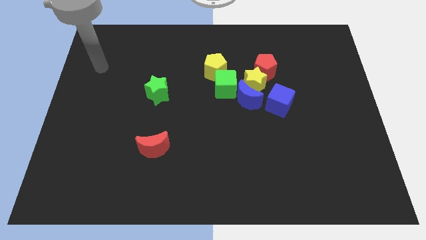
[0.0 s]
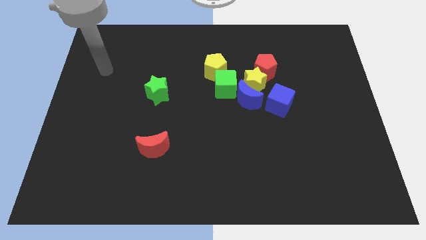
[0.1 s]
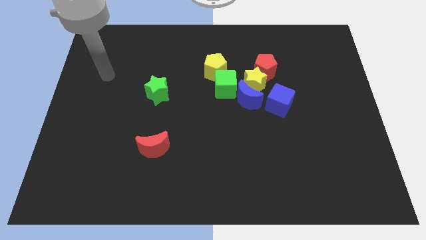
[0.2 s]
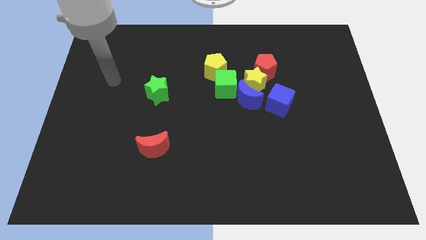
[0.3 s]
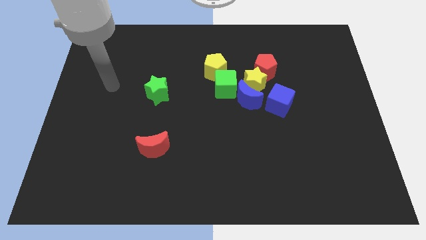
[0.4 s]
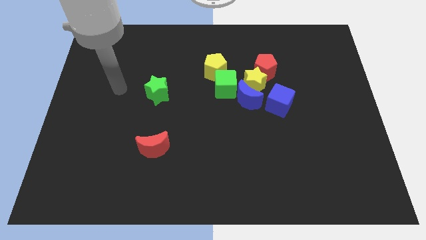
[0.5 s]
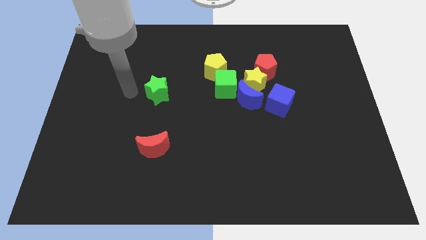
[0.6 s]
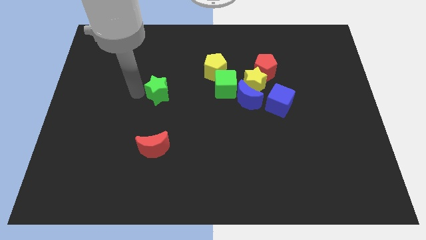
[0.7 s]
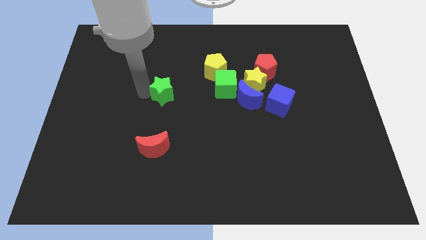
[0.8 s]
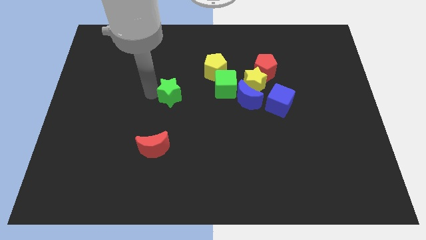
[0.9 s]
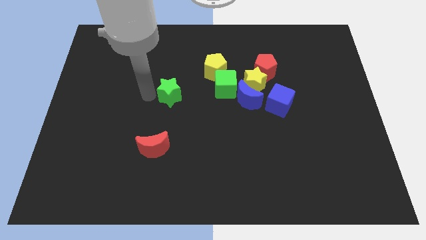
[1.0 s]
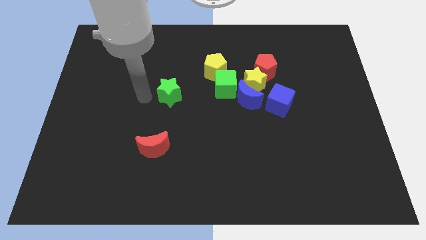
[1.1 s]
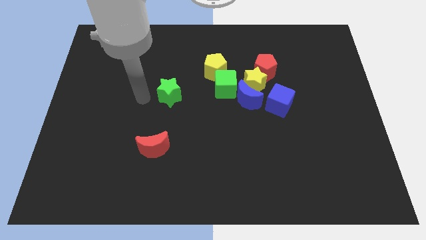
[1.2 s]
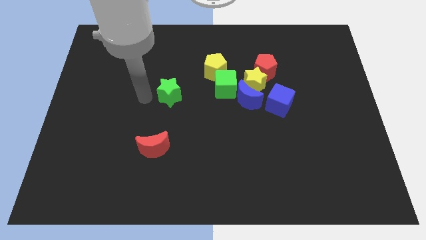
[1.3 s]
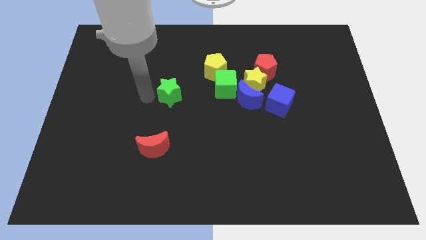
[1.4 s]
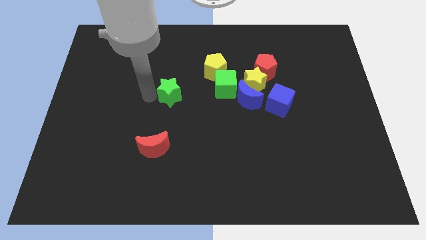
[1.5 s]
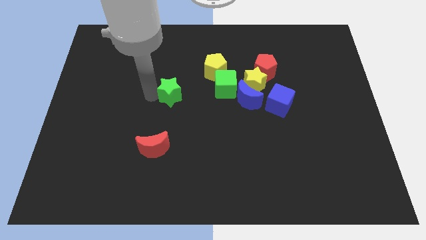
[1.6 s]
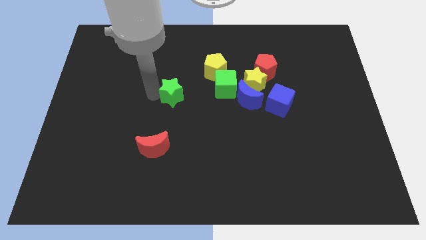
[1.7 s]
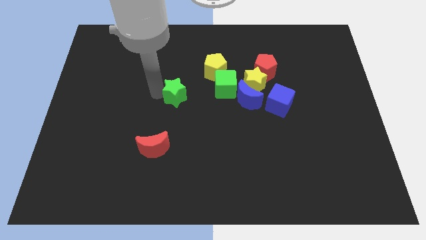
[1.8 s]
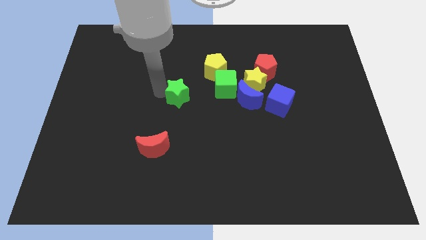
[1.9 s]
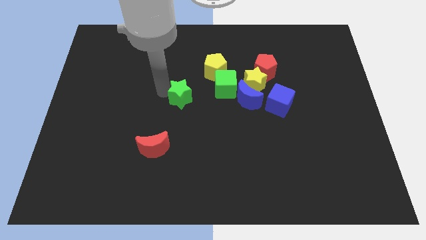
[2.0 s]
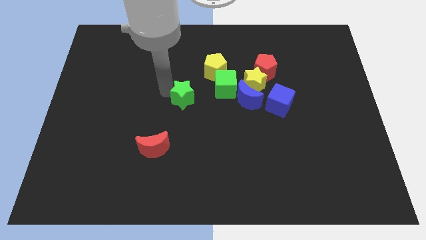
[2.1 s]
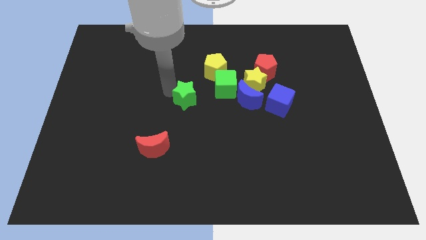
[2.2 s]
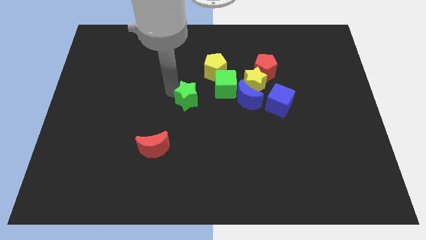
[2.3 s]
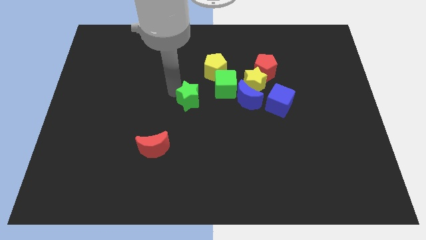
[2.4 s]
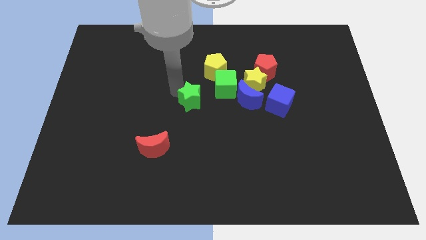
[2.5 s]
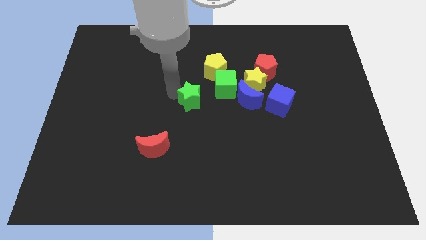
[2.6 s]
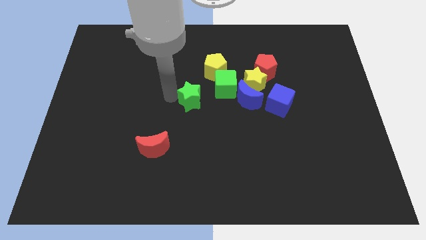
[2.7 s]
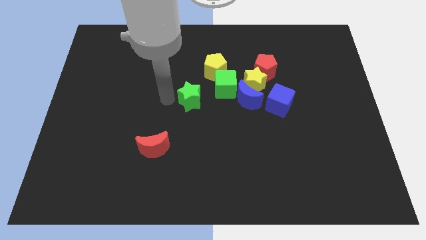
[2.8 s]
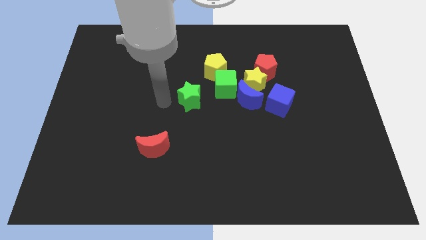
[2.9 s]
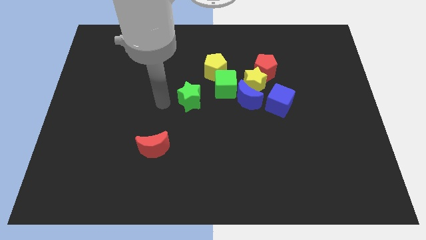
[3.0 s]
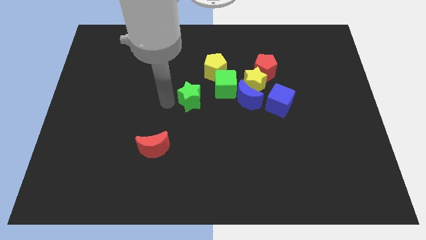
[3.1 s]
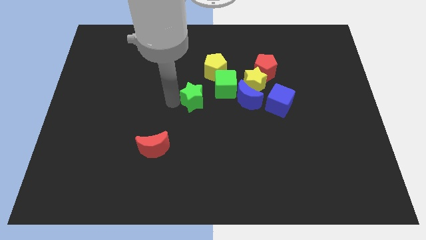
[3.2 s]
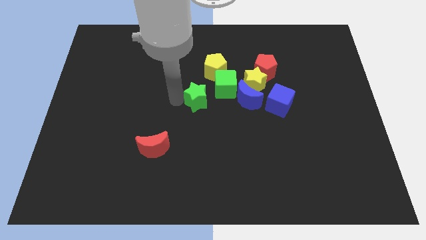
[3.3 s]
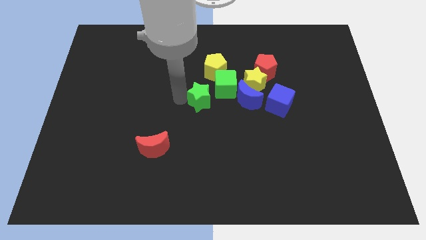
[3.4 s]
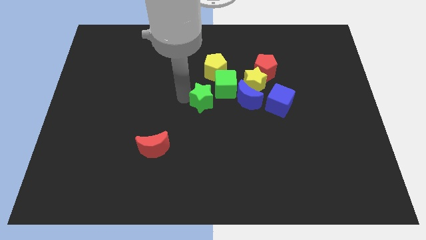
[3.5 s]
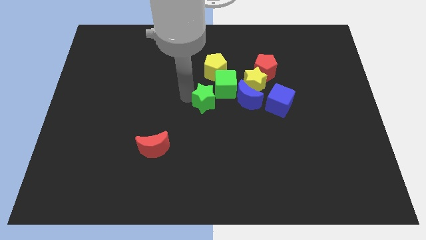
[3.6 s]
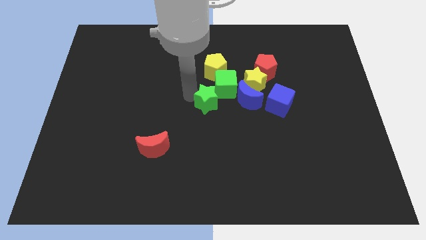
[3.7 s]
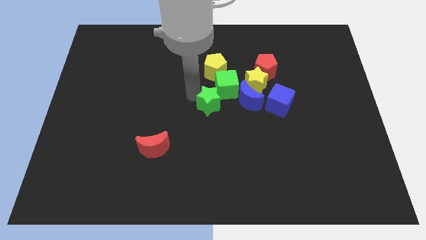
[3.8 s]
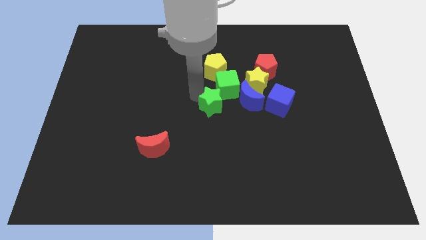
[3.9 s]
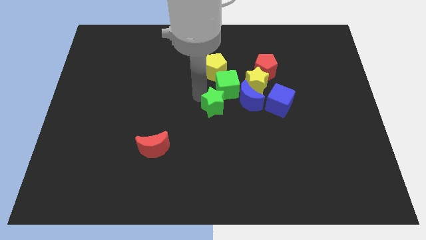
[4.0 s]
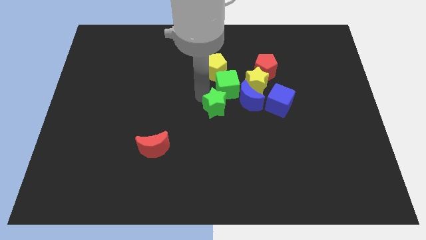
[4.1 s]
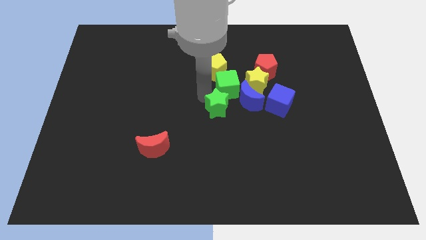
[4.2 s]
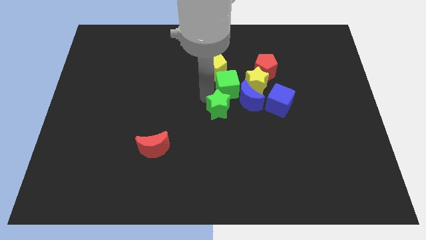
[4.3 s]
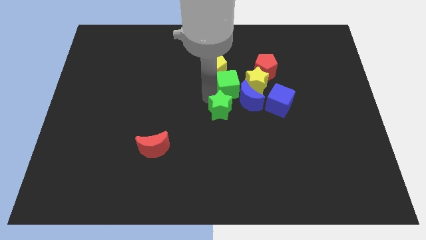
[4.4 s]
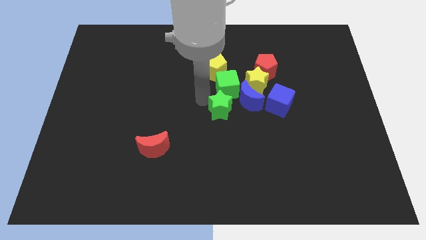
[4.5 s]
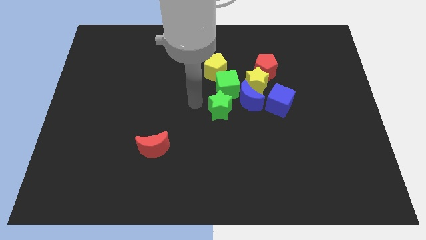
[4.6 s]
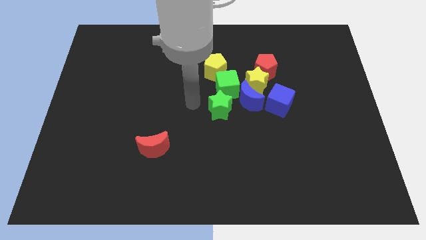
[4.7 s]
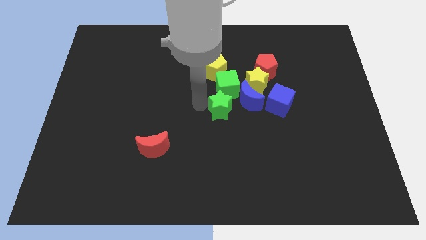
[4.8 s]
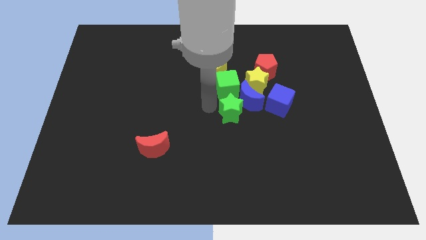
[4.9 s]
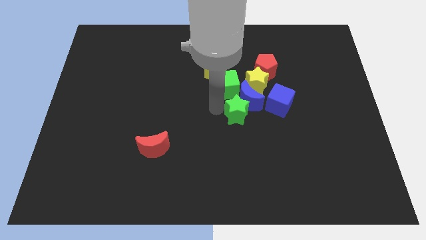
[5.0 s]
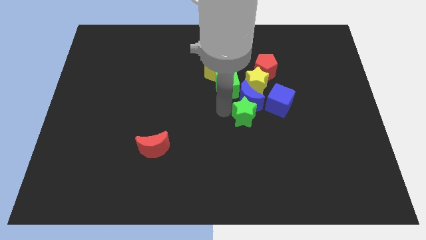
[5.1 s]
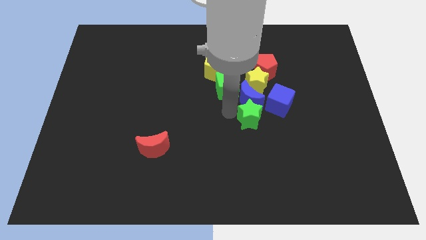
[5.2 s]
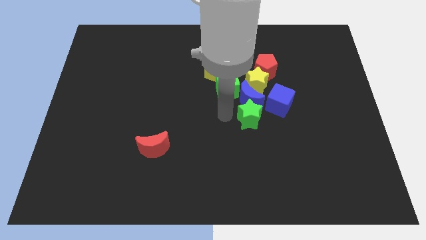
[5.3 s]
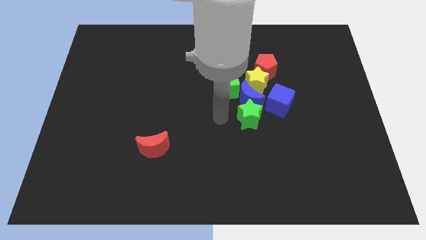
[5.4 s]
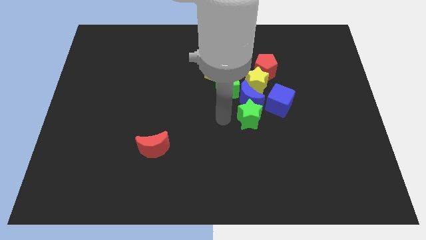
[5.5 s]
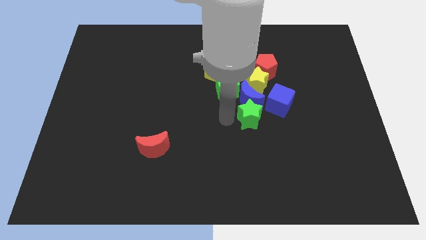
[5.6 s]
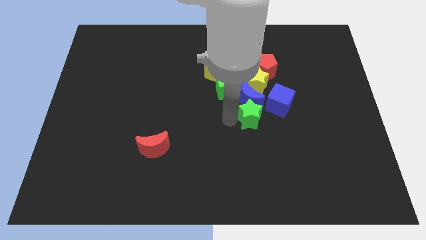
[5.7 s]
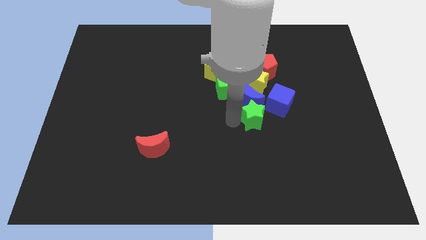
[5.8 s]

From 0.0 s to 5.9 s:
push the green star to the right

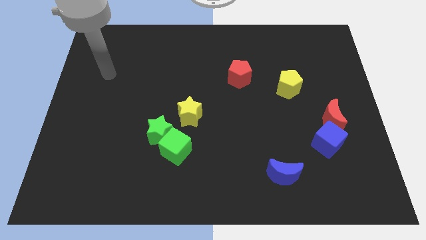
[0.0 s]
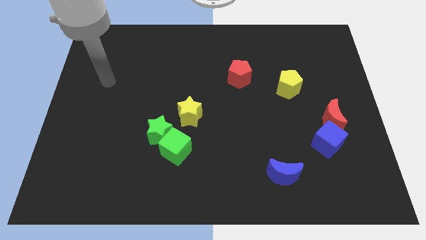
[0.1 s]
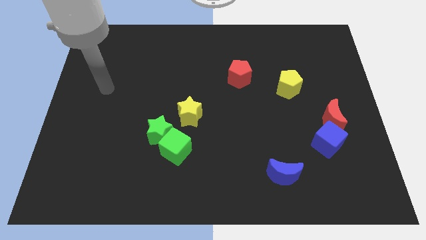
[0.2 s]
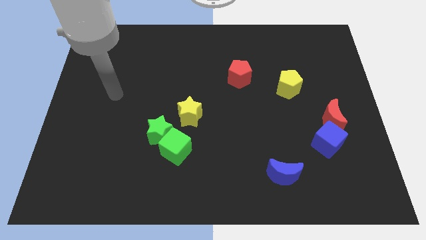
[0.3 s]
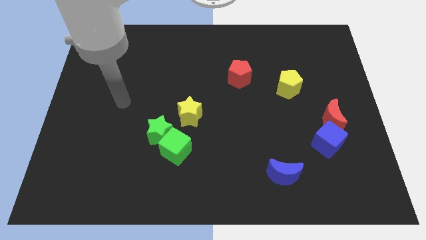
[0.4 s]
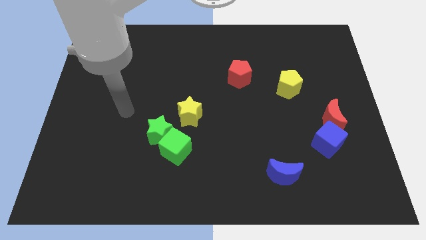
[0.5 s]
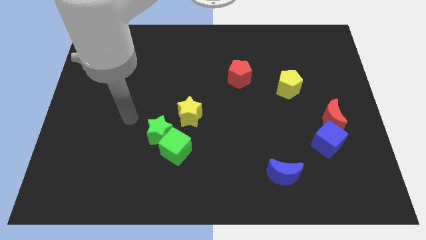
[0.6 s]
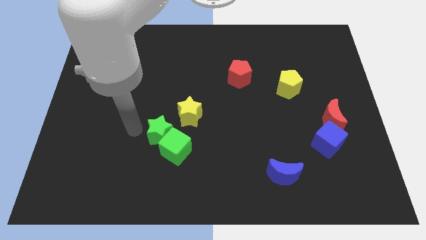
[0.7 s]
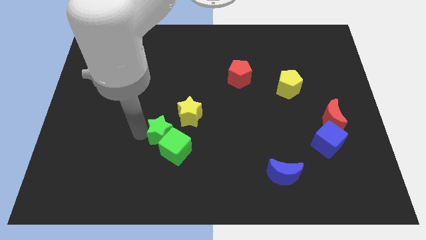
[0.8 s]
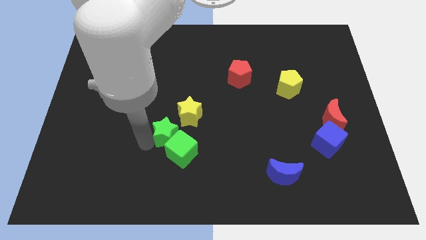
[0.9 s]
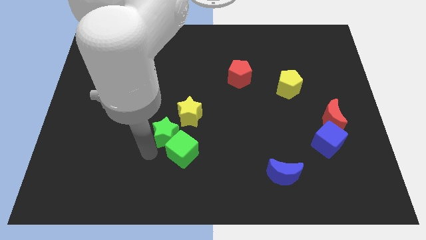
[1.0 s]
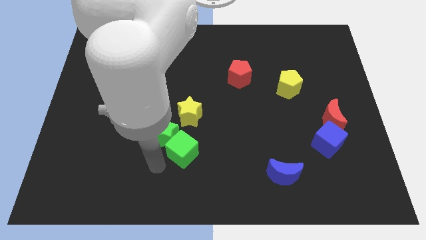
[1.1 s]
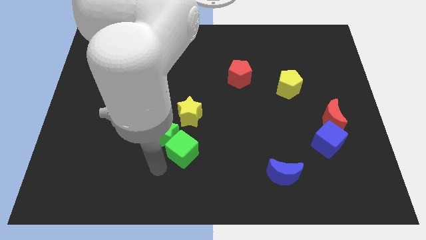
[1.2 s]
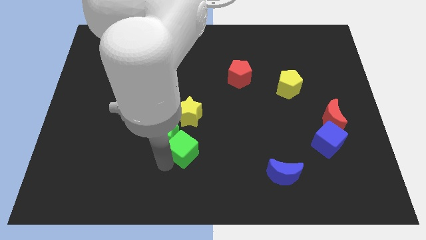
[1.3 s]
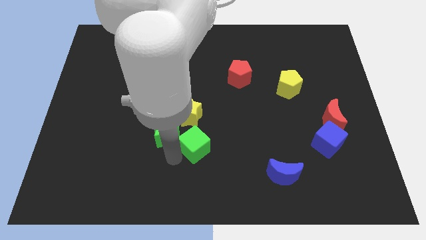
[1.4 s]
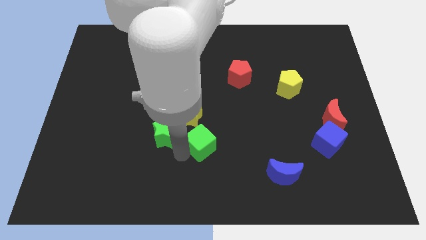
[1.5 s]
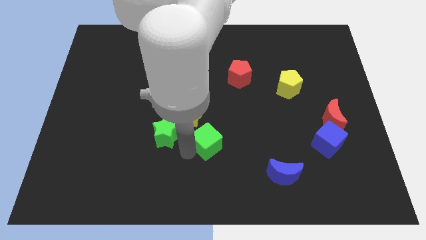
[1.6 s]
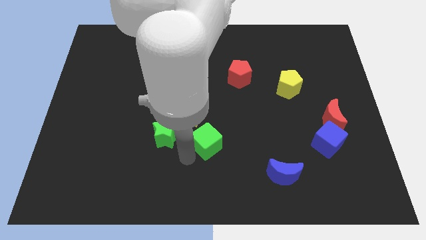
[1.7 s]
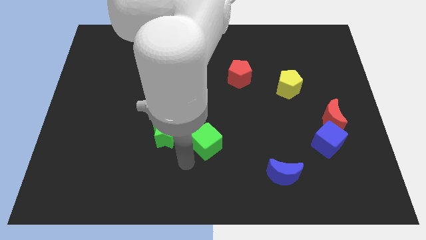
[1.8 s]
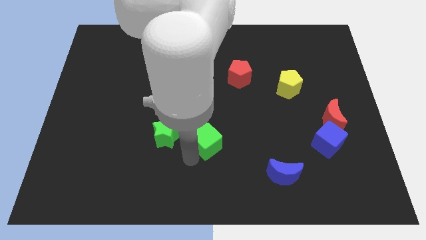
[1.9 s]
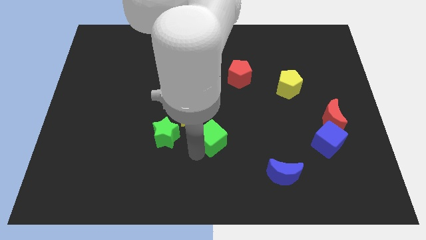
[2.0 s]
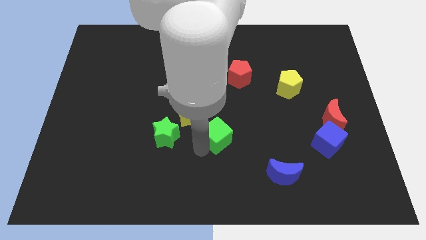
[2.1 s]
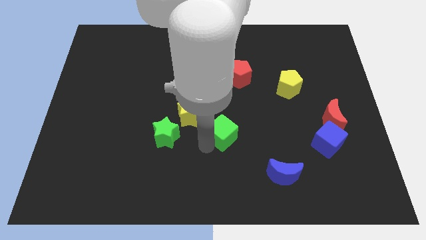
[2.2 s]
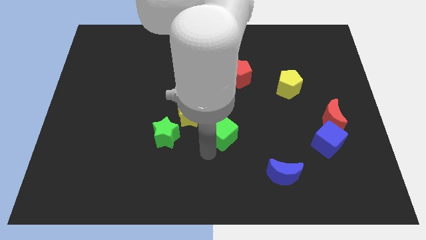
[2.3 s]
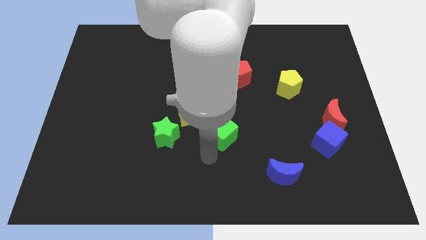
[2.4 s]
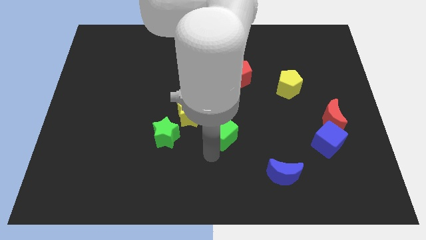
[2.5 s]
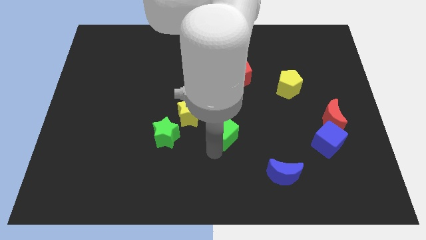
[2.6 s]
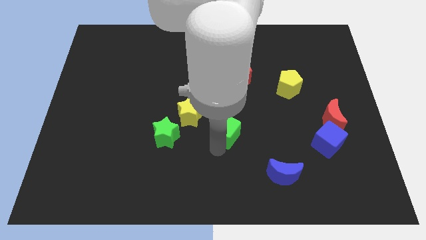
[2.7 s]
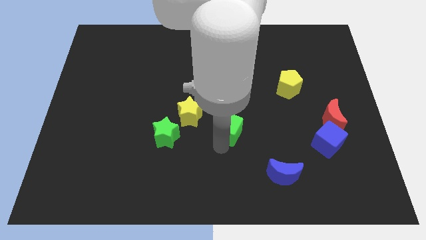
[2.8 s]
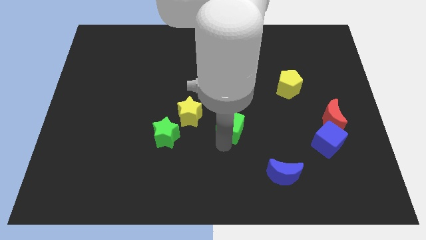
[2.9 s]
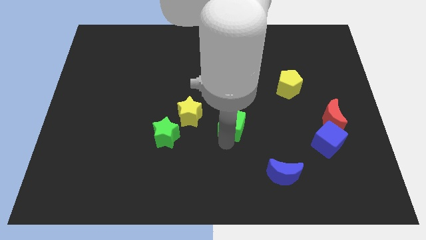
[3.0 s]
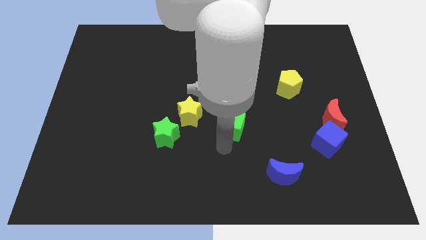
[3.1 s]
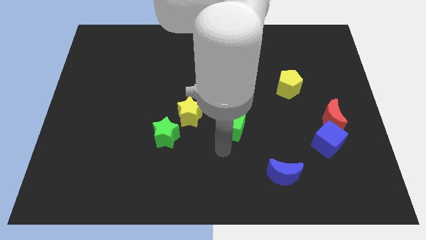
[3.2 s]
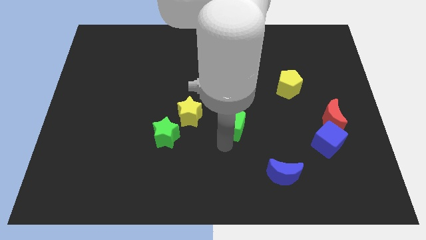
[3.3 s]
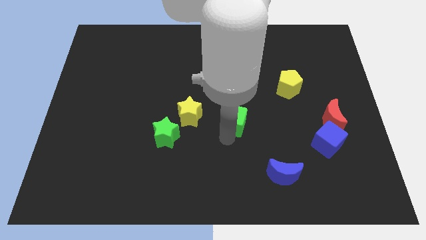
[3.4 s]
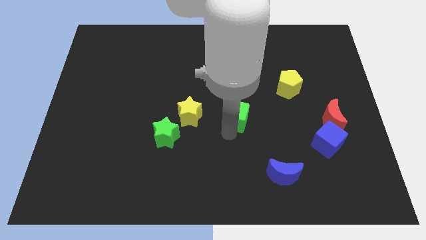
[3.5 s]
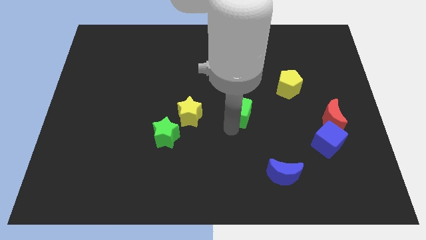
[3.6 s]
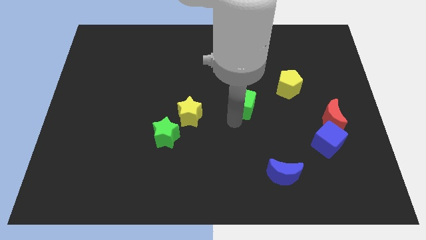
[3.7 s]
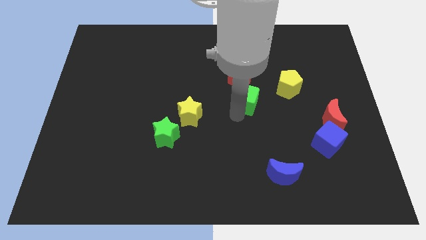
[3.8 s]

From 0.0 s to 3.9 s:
push the green cube upwards and right diagonally
